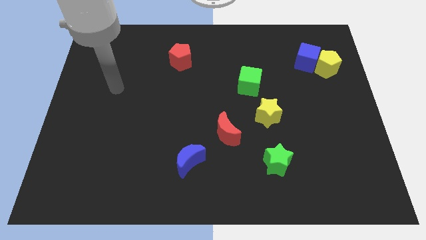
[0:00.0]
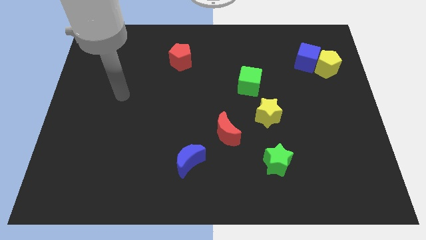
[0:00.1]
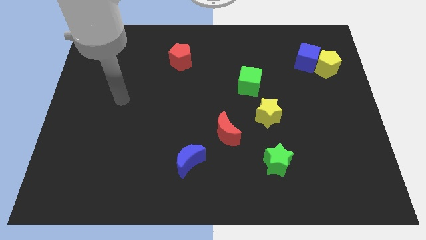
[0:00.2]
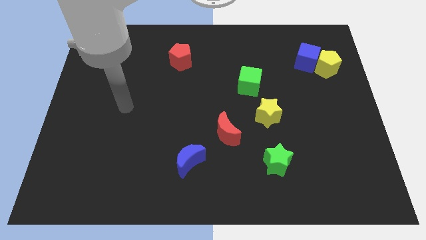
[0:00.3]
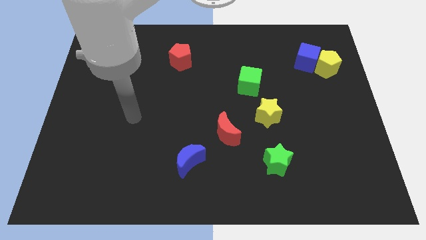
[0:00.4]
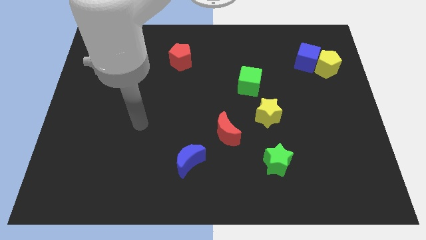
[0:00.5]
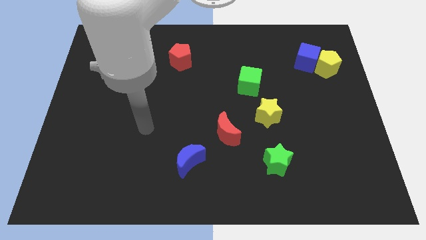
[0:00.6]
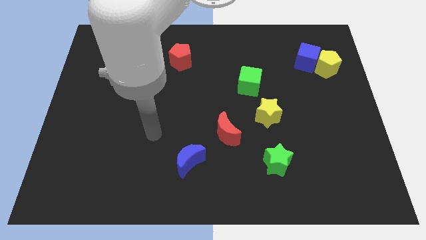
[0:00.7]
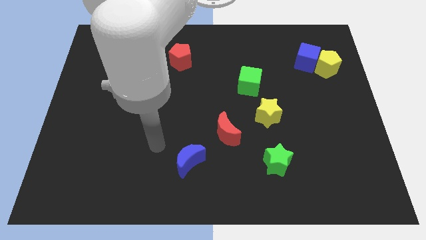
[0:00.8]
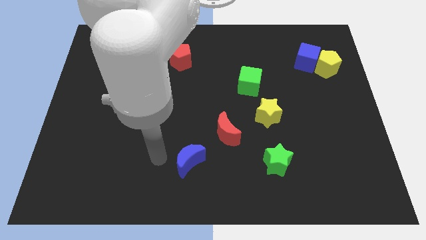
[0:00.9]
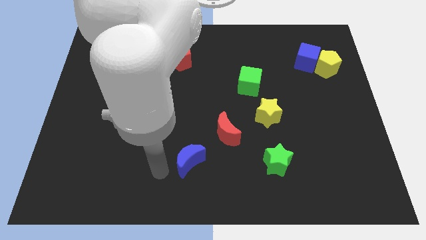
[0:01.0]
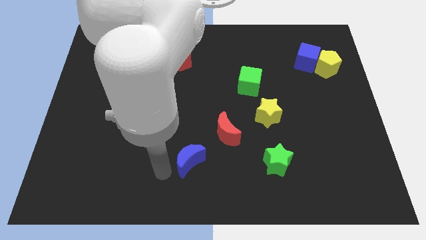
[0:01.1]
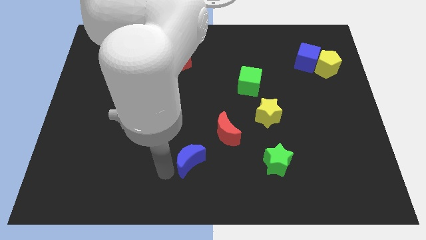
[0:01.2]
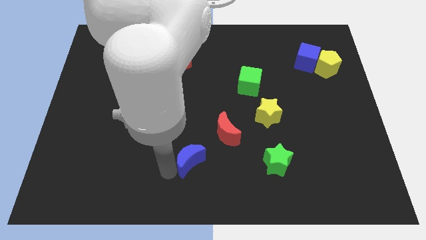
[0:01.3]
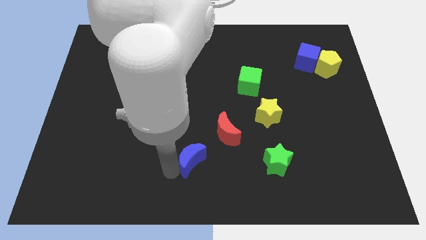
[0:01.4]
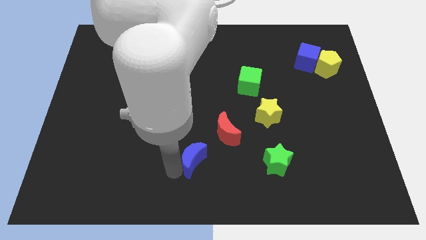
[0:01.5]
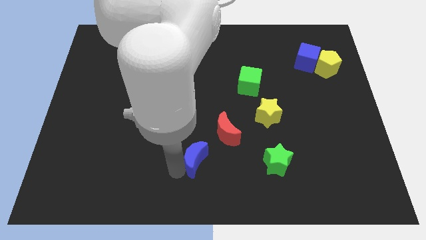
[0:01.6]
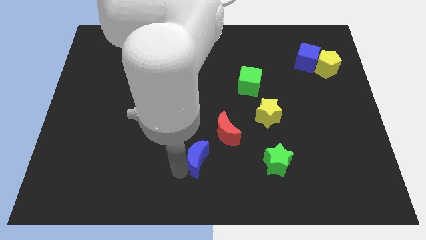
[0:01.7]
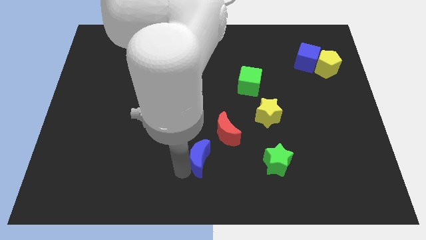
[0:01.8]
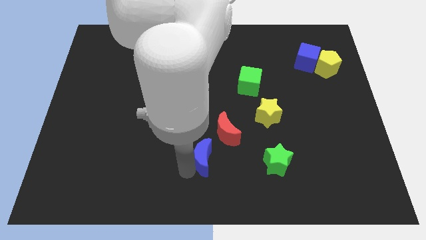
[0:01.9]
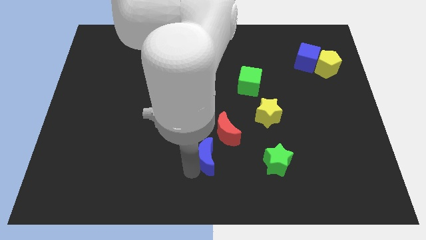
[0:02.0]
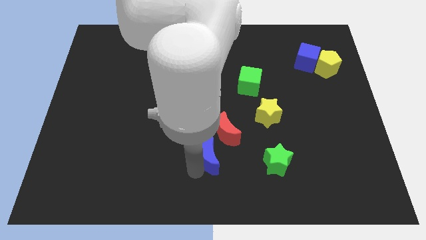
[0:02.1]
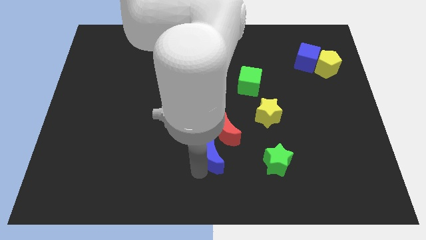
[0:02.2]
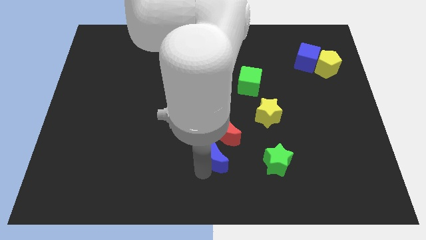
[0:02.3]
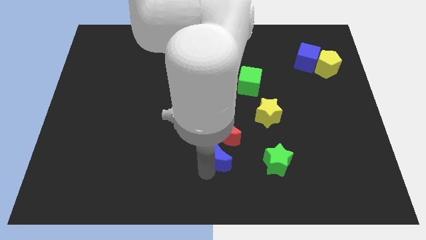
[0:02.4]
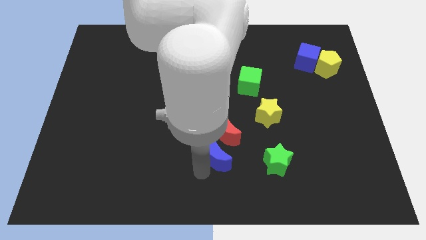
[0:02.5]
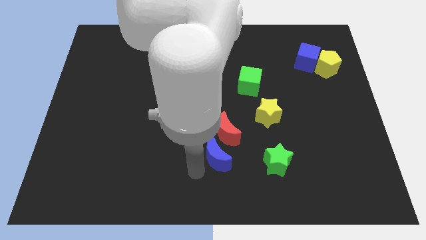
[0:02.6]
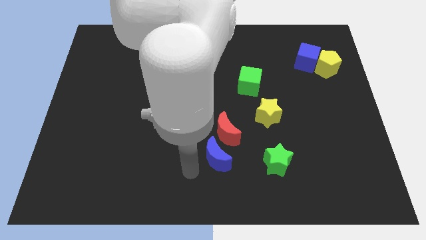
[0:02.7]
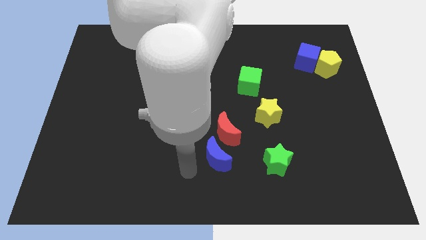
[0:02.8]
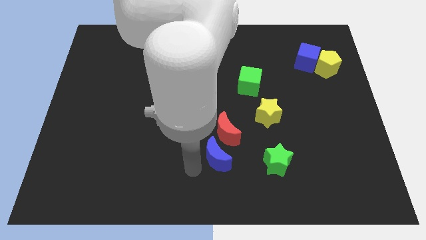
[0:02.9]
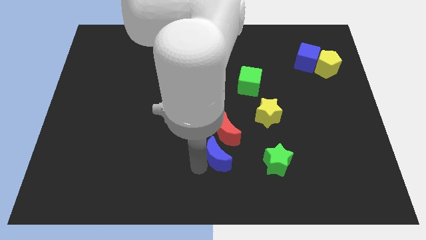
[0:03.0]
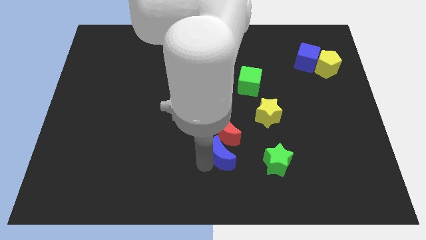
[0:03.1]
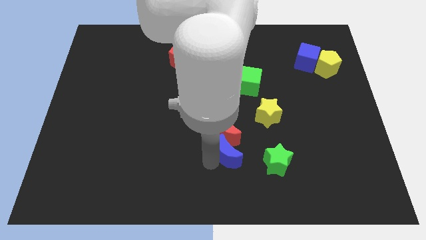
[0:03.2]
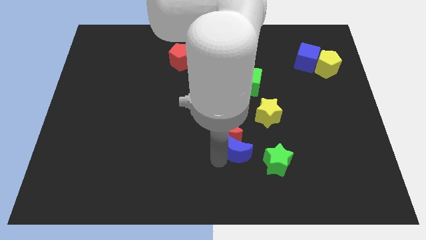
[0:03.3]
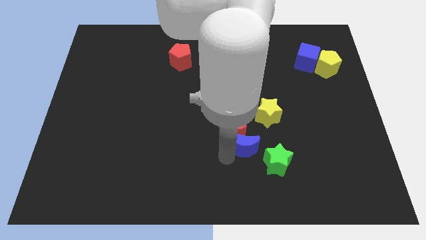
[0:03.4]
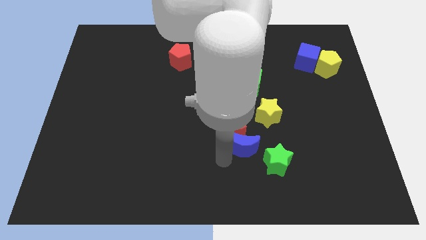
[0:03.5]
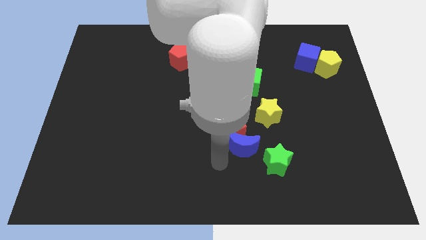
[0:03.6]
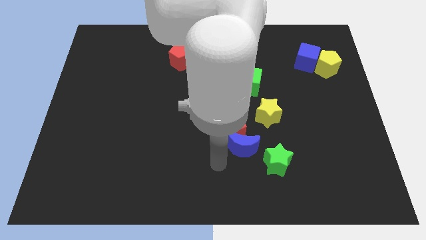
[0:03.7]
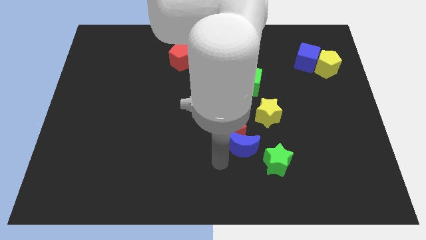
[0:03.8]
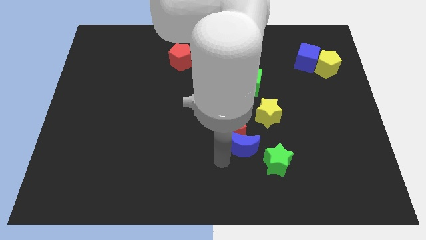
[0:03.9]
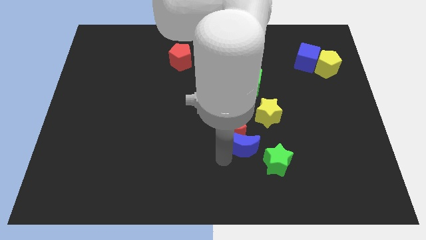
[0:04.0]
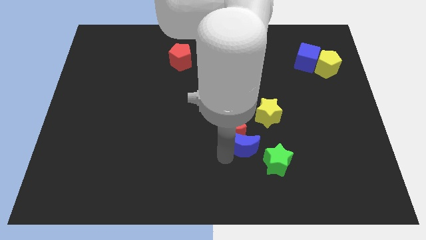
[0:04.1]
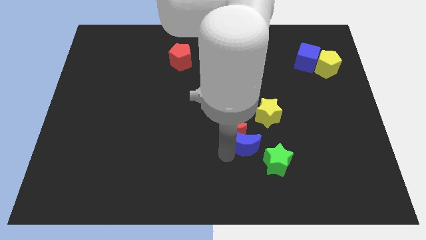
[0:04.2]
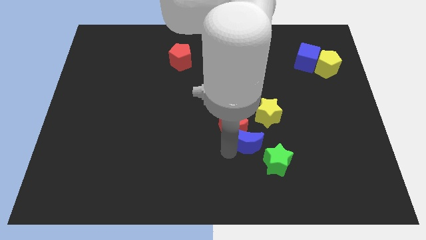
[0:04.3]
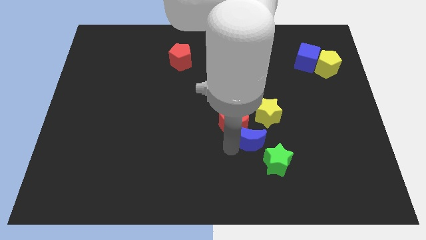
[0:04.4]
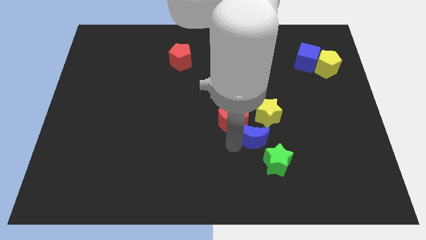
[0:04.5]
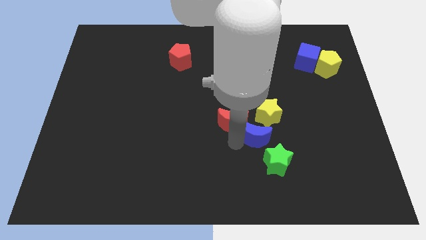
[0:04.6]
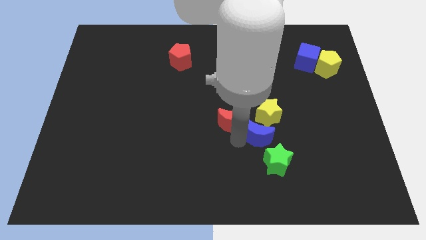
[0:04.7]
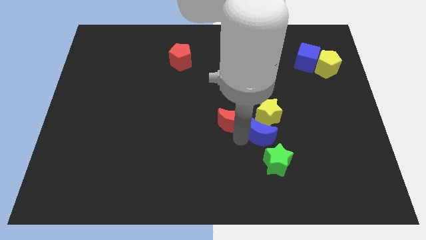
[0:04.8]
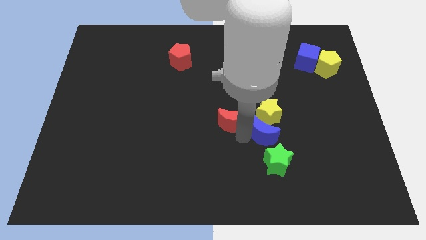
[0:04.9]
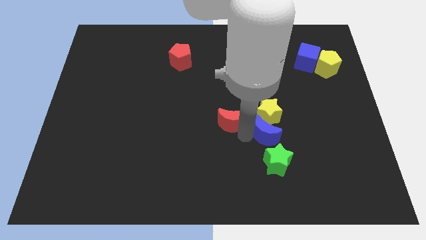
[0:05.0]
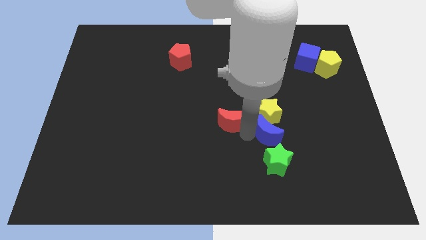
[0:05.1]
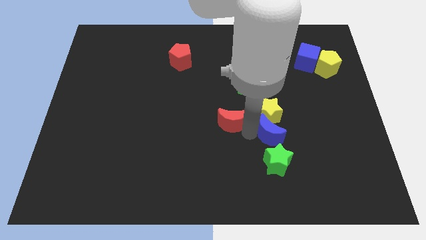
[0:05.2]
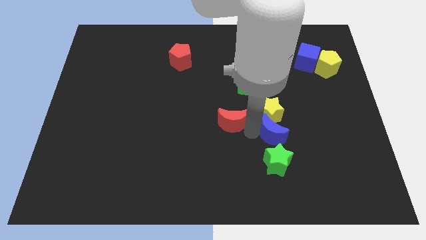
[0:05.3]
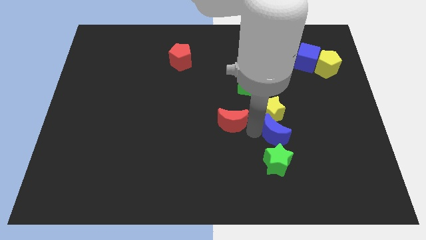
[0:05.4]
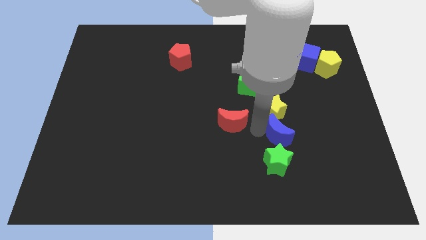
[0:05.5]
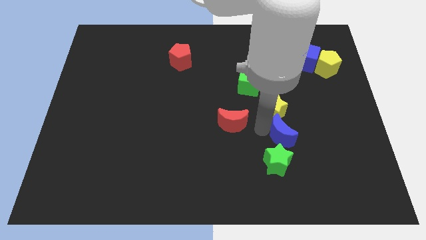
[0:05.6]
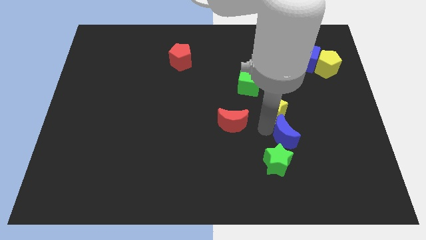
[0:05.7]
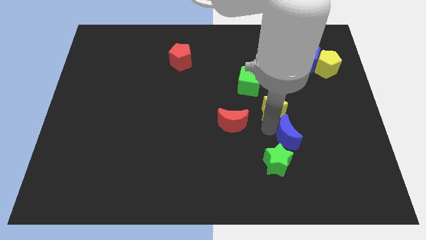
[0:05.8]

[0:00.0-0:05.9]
slide the blue moon right

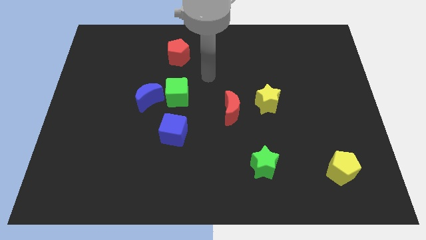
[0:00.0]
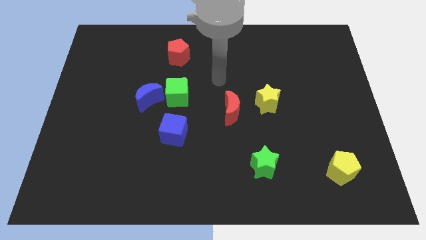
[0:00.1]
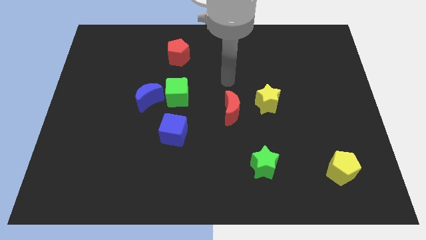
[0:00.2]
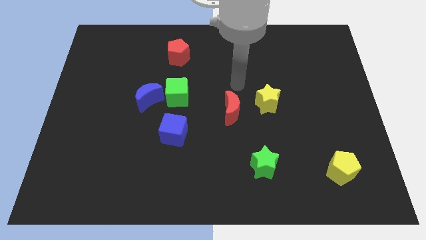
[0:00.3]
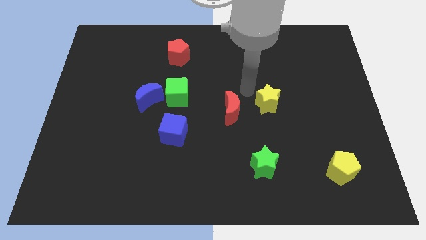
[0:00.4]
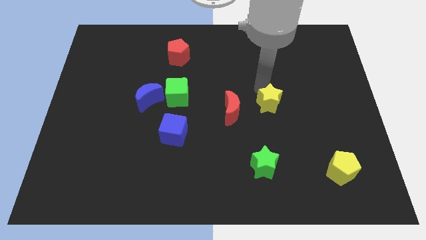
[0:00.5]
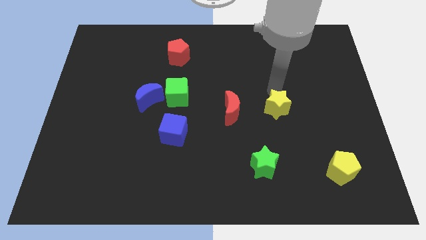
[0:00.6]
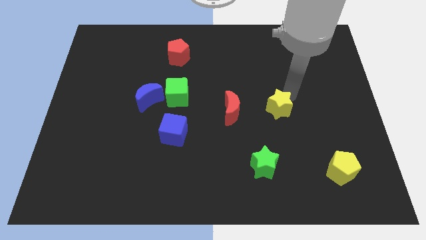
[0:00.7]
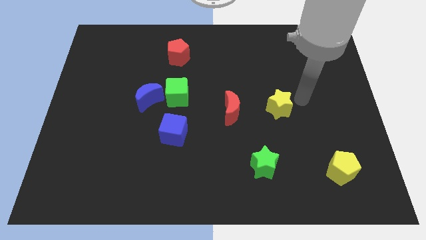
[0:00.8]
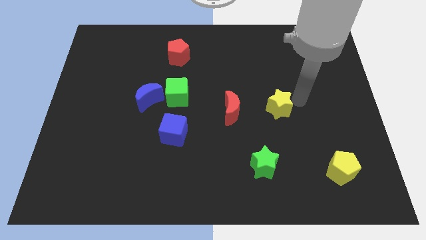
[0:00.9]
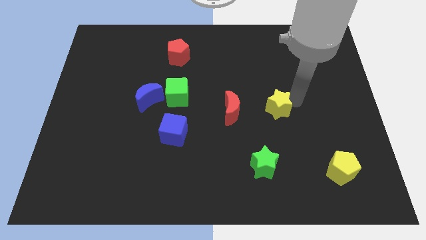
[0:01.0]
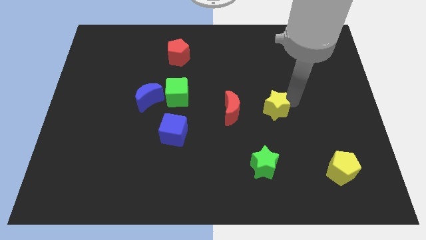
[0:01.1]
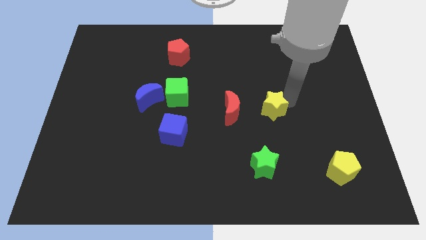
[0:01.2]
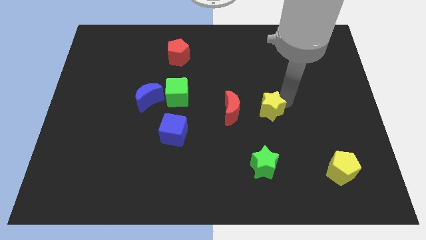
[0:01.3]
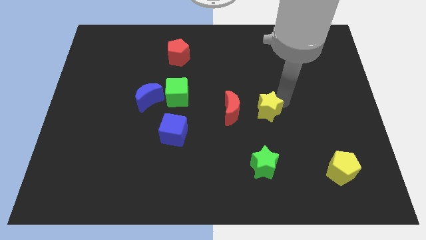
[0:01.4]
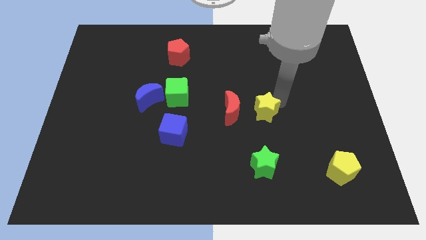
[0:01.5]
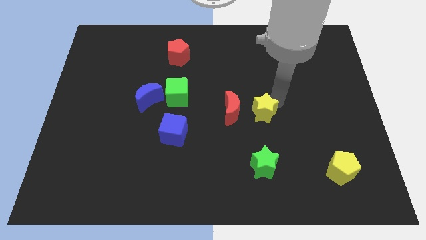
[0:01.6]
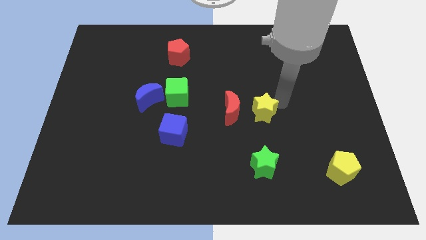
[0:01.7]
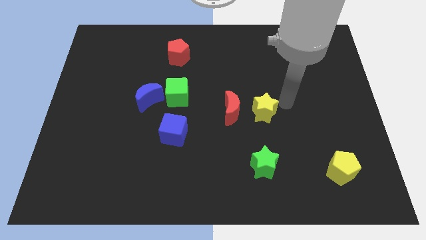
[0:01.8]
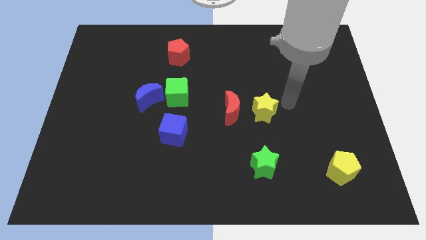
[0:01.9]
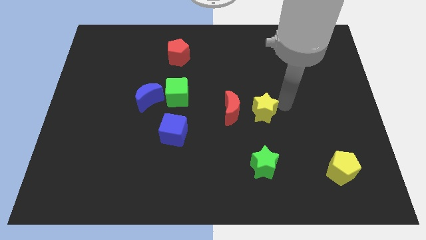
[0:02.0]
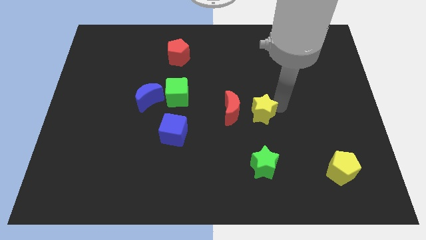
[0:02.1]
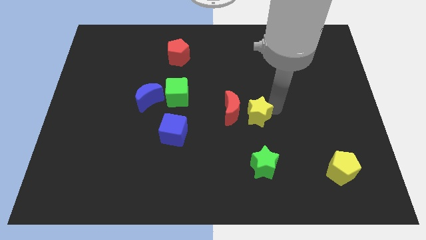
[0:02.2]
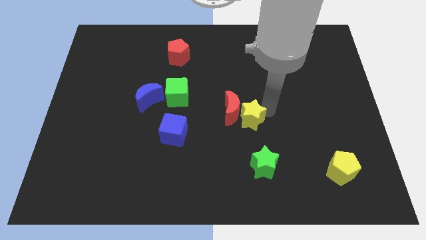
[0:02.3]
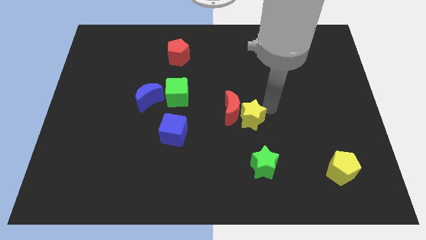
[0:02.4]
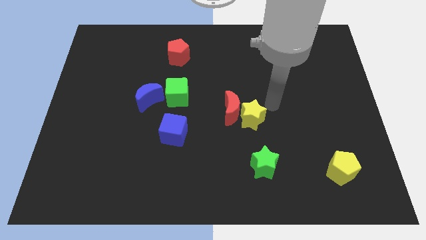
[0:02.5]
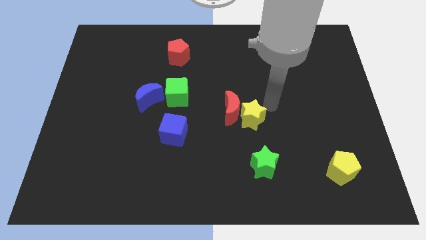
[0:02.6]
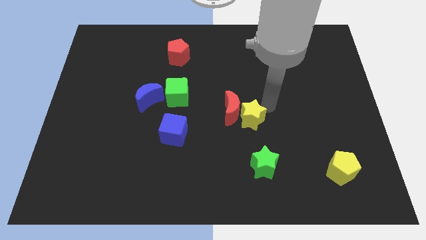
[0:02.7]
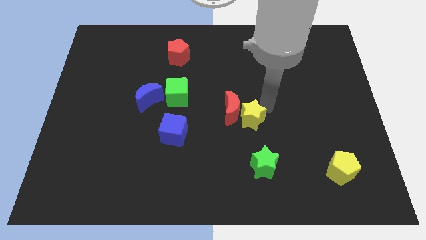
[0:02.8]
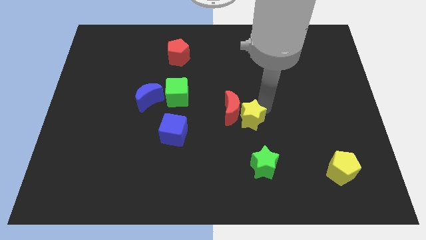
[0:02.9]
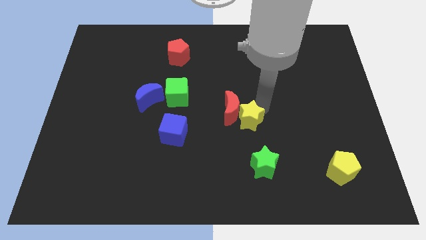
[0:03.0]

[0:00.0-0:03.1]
move the yellow star diagonally down and to the left a little bit
